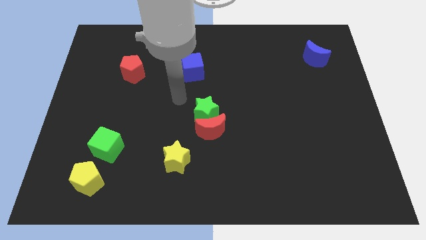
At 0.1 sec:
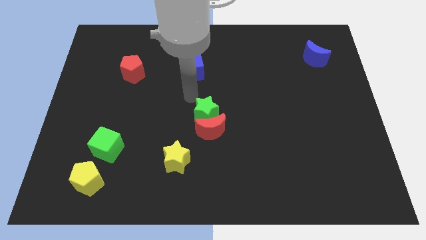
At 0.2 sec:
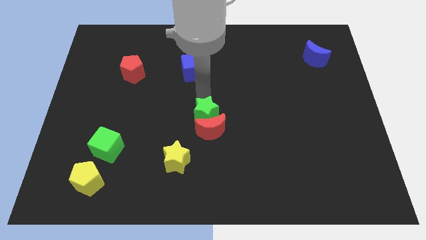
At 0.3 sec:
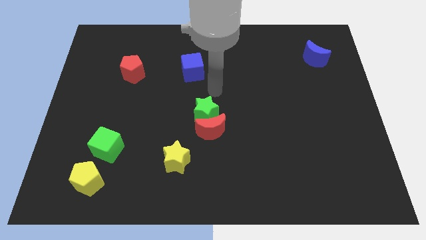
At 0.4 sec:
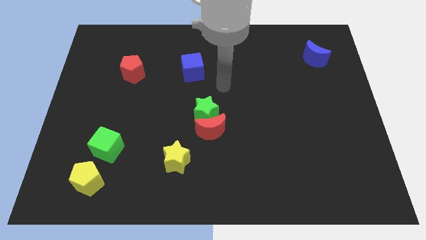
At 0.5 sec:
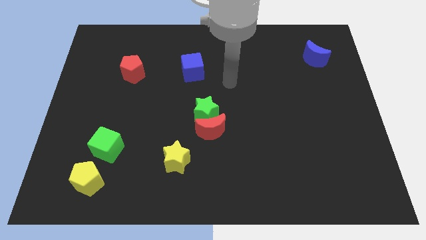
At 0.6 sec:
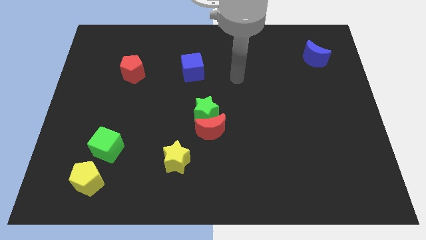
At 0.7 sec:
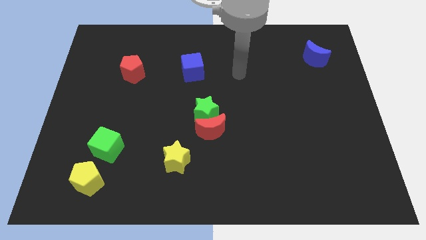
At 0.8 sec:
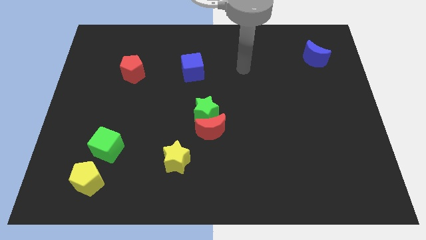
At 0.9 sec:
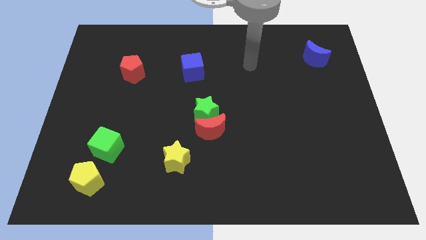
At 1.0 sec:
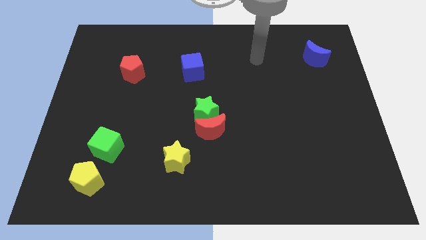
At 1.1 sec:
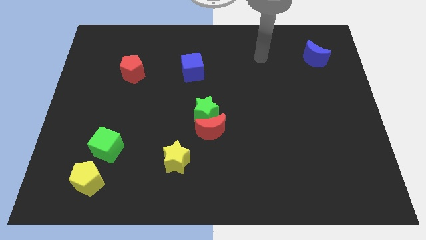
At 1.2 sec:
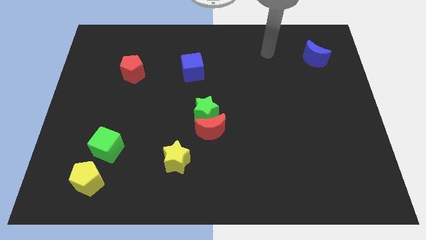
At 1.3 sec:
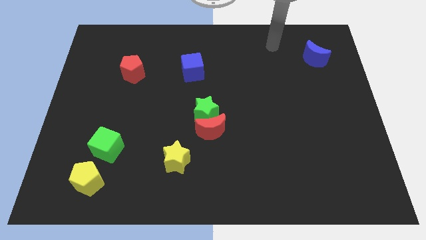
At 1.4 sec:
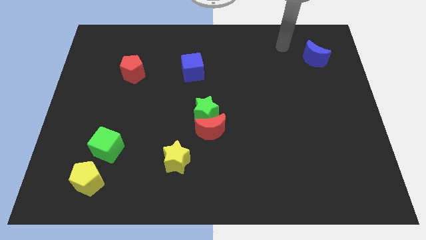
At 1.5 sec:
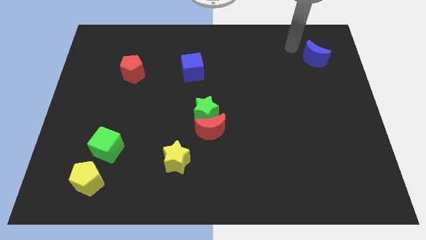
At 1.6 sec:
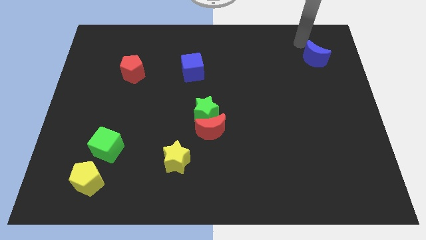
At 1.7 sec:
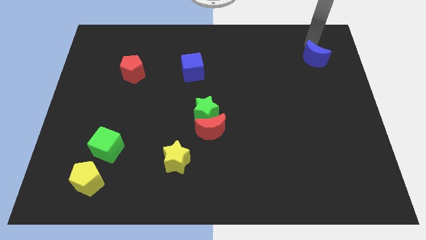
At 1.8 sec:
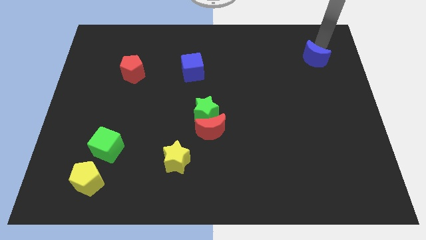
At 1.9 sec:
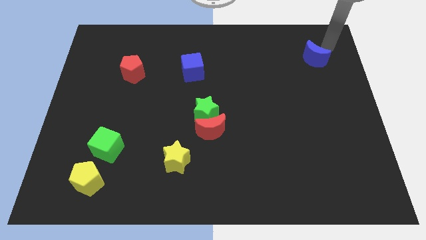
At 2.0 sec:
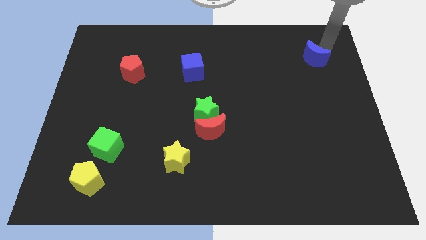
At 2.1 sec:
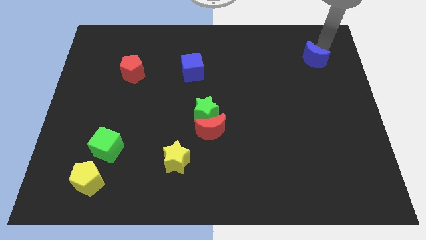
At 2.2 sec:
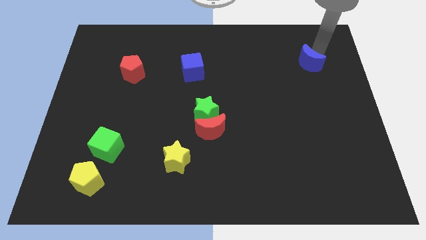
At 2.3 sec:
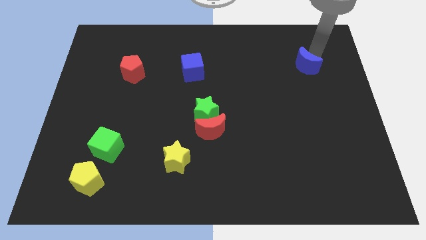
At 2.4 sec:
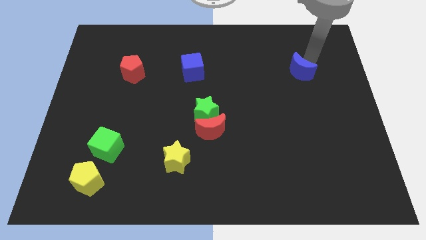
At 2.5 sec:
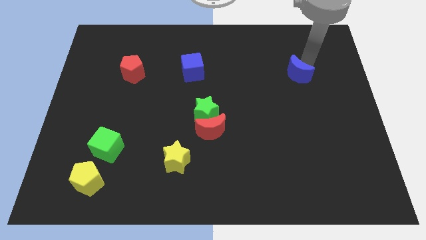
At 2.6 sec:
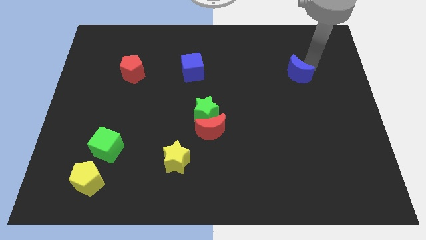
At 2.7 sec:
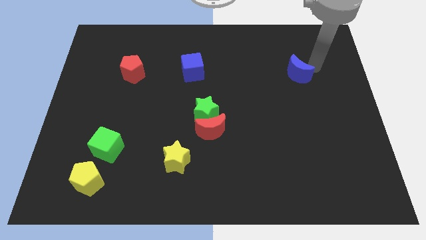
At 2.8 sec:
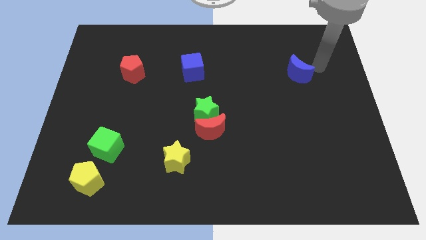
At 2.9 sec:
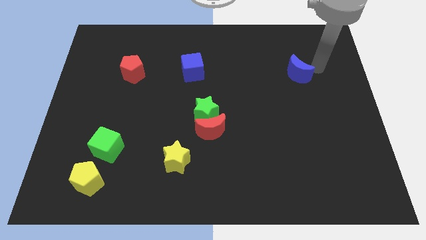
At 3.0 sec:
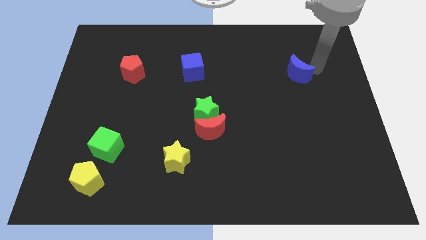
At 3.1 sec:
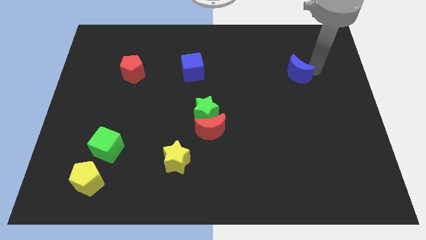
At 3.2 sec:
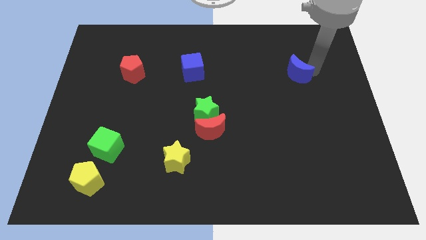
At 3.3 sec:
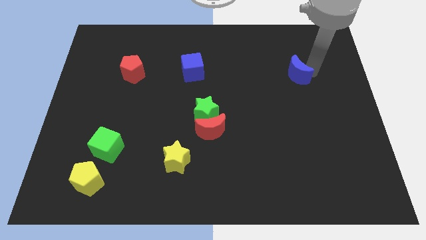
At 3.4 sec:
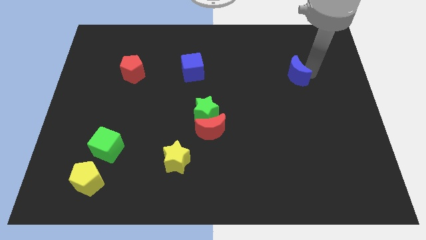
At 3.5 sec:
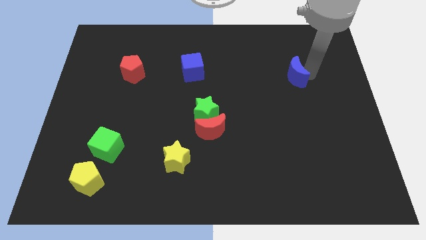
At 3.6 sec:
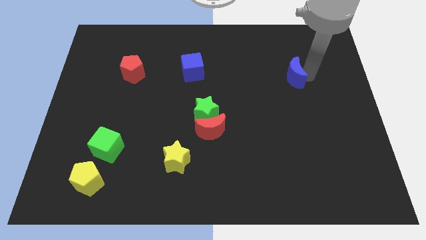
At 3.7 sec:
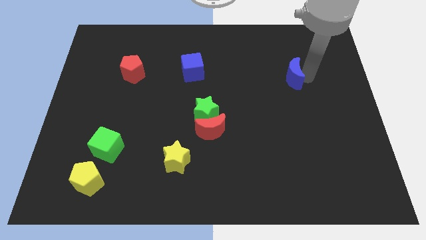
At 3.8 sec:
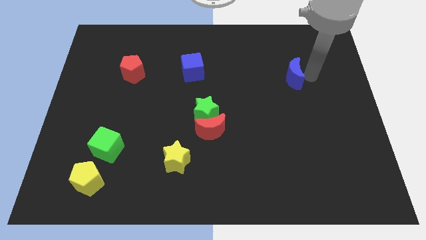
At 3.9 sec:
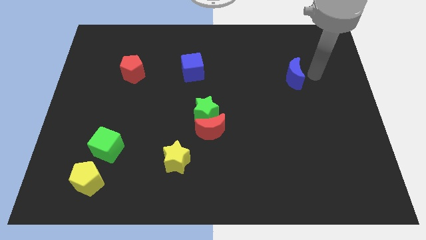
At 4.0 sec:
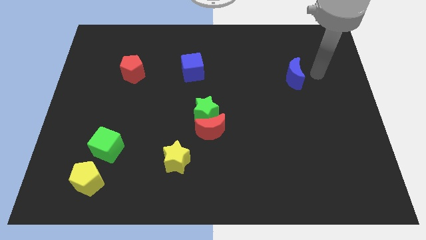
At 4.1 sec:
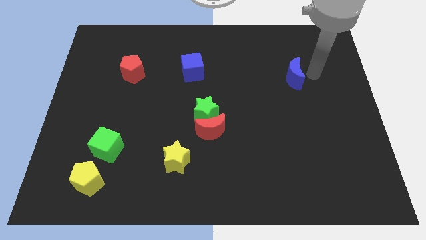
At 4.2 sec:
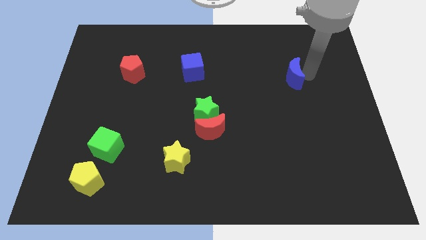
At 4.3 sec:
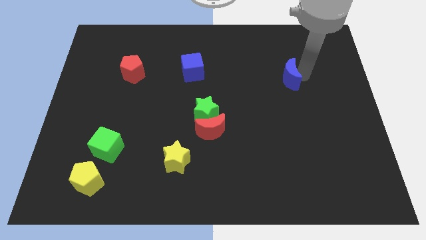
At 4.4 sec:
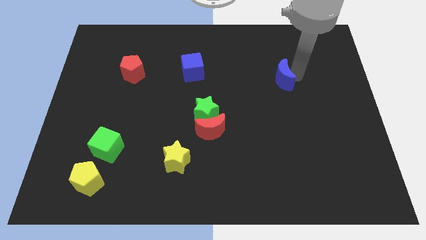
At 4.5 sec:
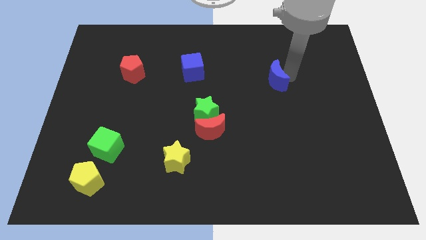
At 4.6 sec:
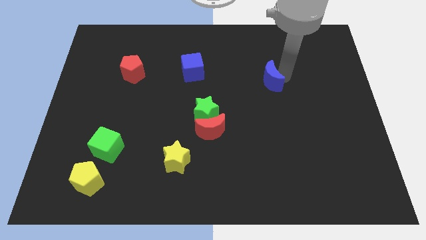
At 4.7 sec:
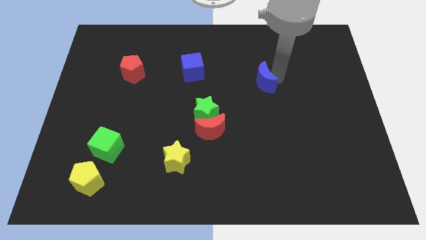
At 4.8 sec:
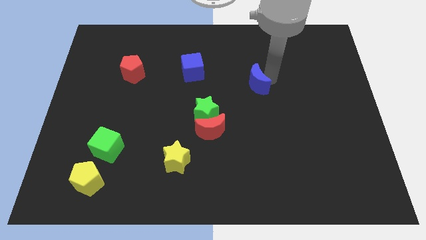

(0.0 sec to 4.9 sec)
move the blue moon to the center

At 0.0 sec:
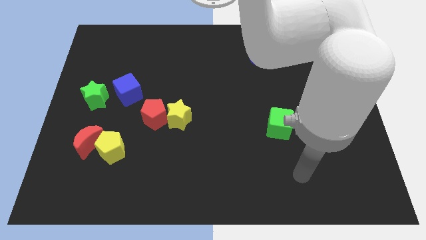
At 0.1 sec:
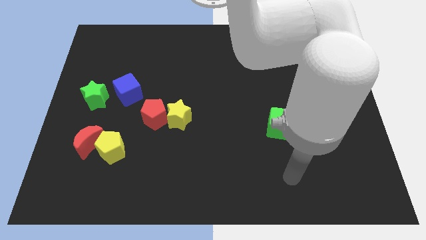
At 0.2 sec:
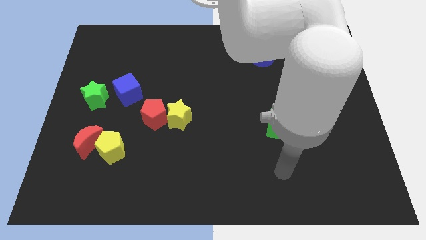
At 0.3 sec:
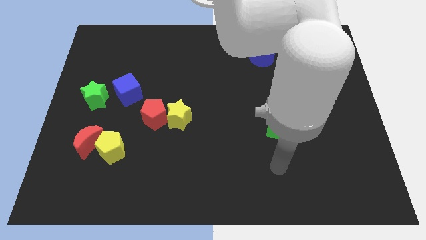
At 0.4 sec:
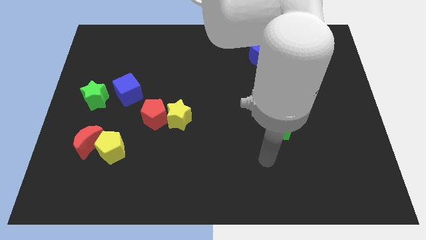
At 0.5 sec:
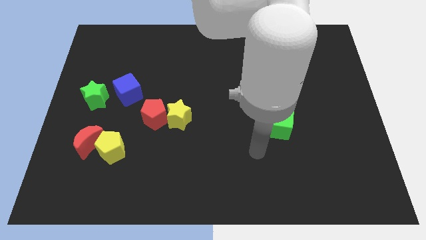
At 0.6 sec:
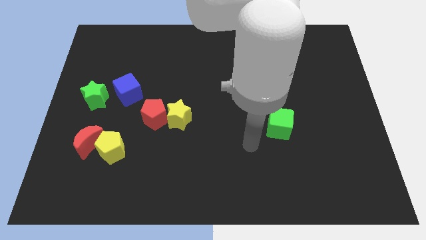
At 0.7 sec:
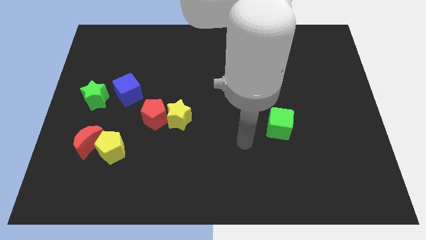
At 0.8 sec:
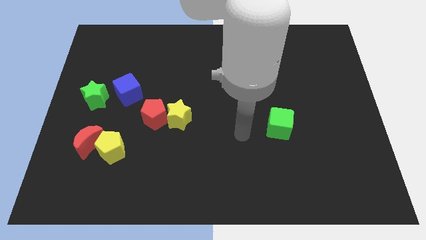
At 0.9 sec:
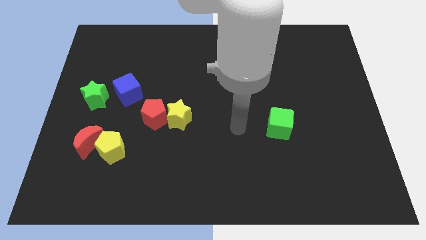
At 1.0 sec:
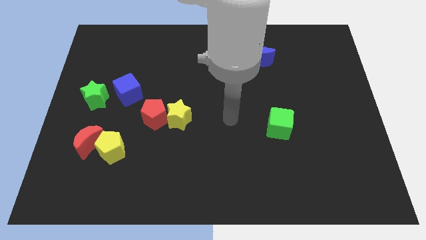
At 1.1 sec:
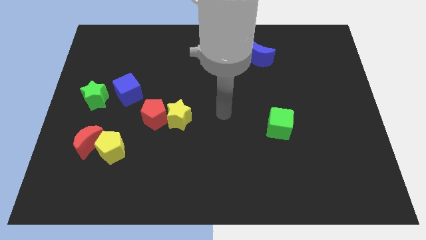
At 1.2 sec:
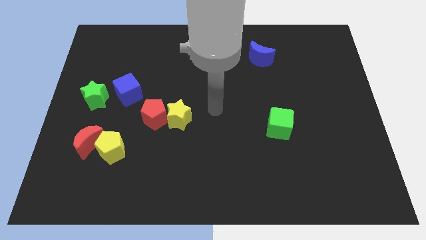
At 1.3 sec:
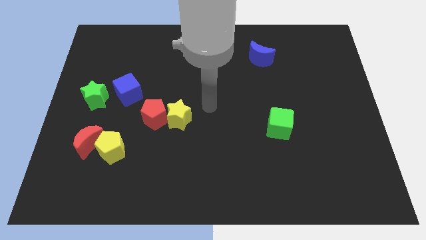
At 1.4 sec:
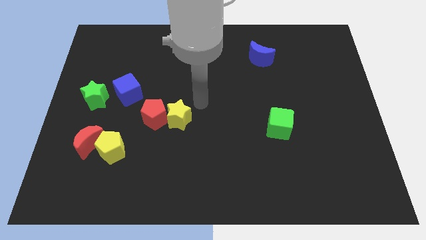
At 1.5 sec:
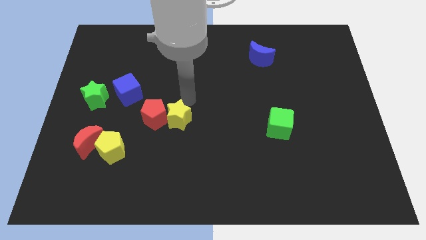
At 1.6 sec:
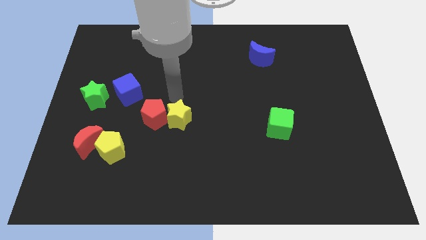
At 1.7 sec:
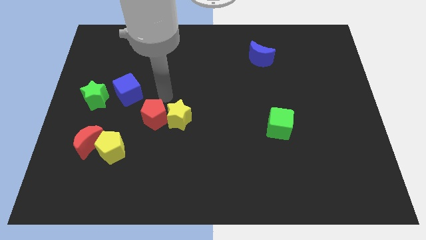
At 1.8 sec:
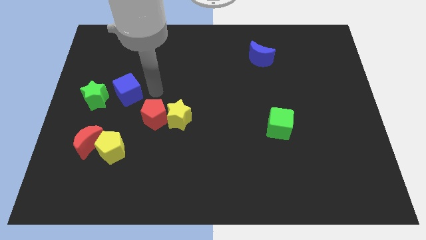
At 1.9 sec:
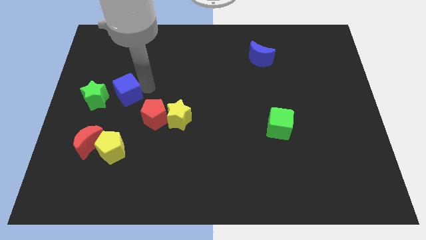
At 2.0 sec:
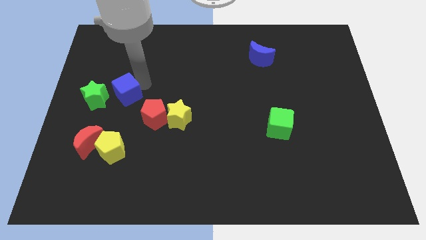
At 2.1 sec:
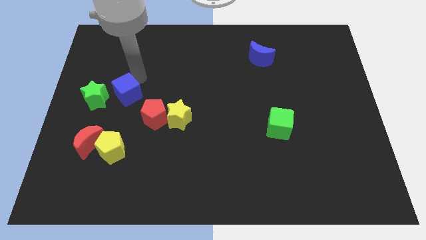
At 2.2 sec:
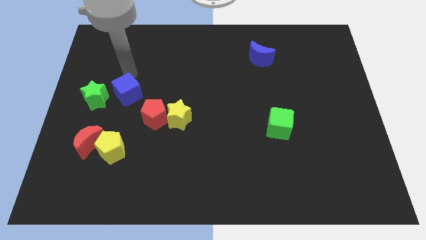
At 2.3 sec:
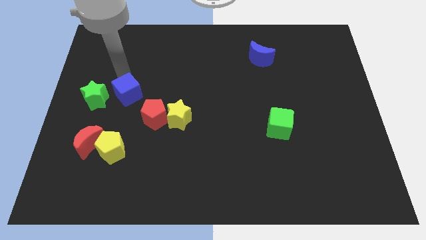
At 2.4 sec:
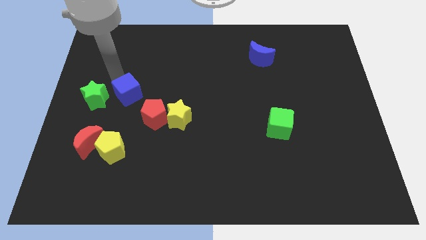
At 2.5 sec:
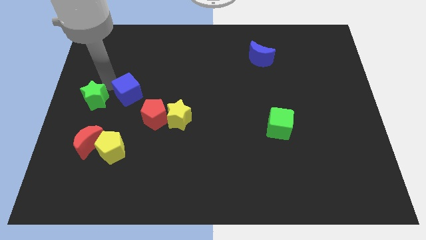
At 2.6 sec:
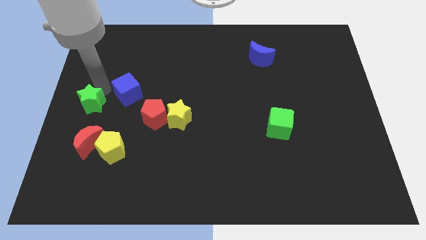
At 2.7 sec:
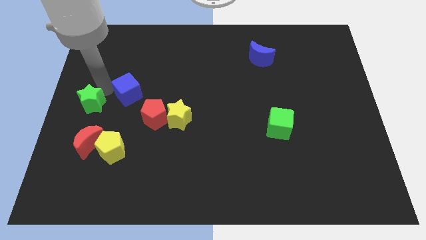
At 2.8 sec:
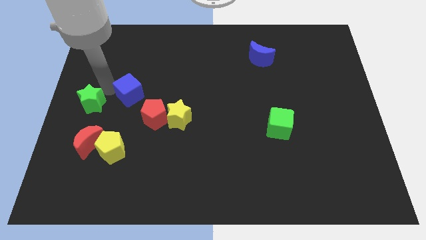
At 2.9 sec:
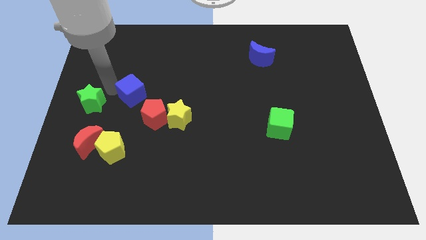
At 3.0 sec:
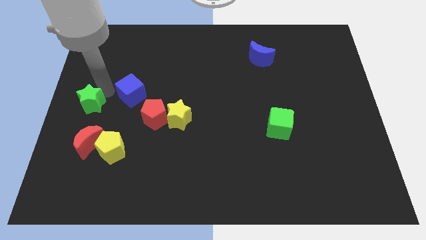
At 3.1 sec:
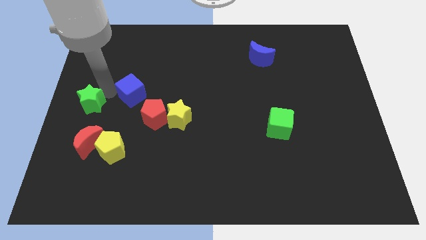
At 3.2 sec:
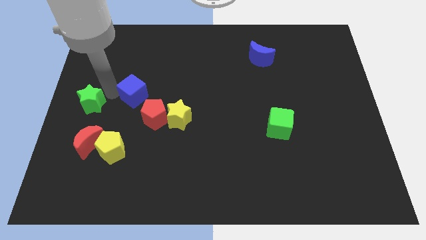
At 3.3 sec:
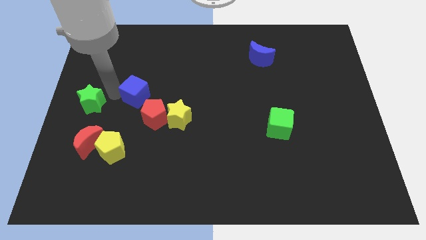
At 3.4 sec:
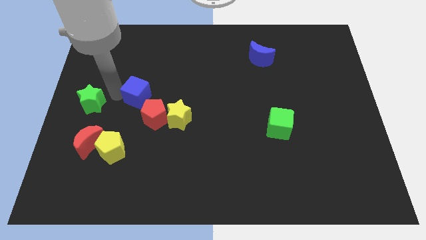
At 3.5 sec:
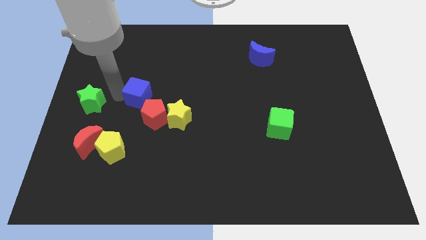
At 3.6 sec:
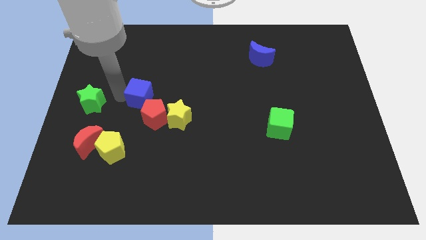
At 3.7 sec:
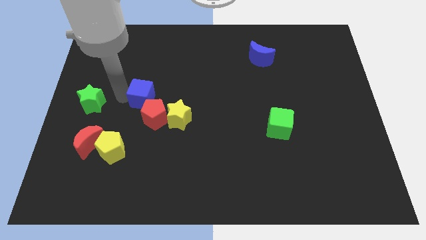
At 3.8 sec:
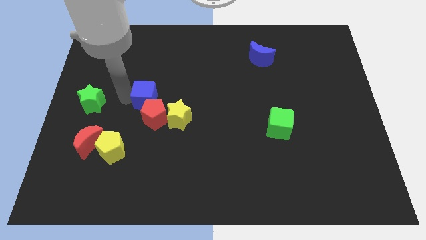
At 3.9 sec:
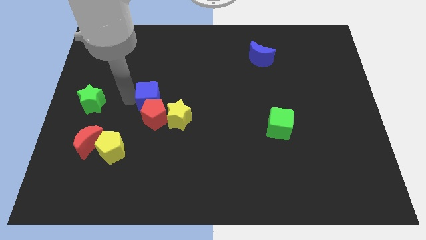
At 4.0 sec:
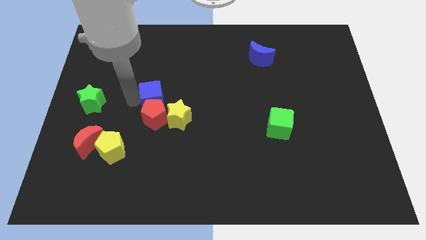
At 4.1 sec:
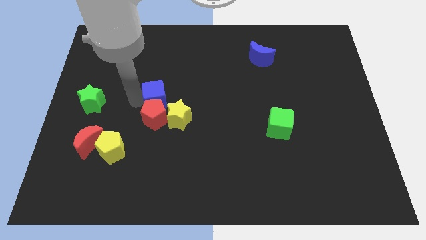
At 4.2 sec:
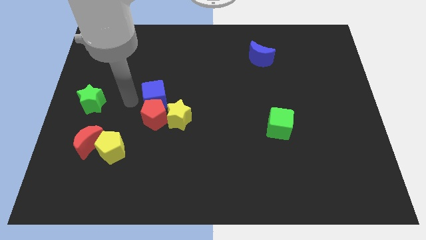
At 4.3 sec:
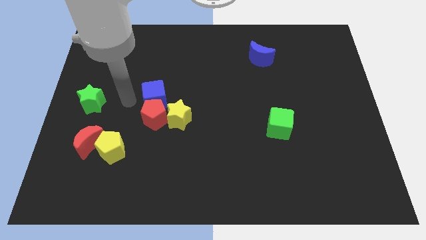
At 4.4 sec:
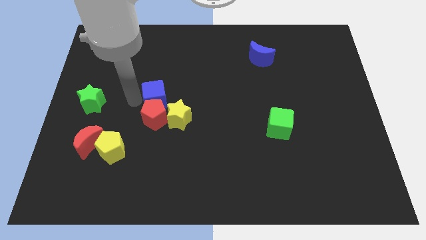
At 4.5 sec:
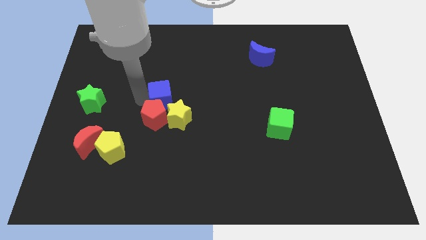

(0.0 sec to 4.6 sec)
put the blue cube to the center
